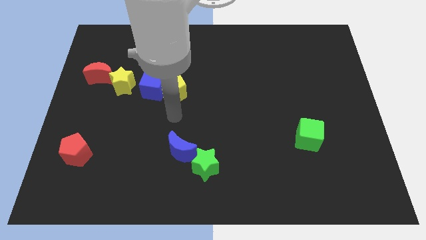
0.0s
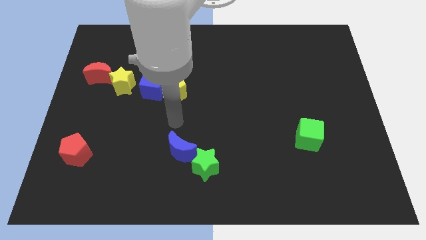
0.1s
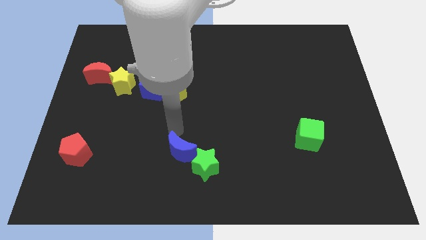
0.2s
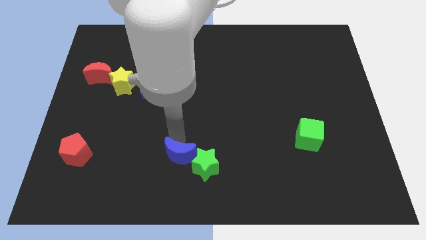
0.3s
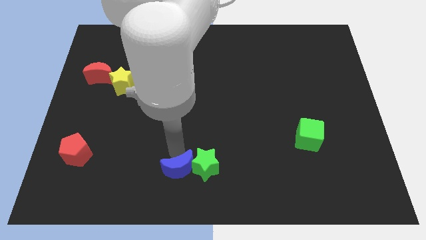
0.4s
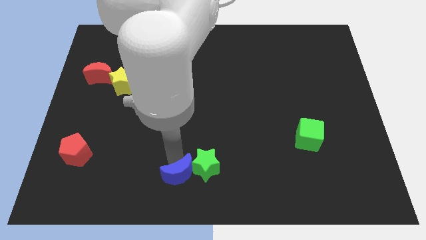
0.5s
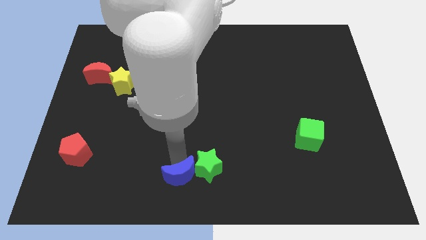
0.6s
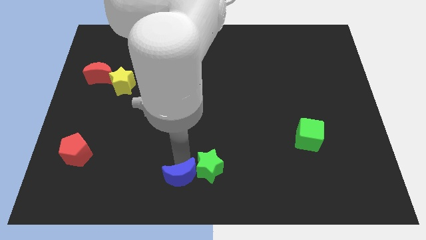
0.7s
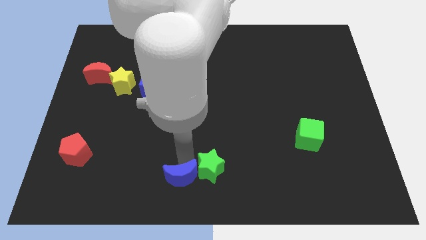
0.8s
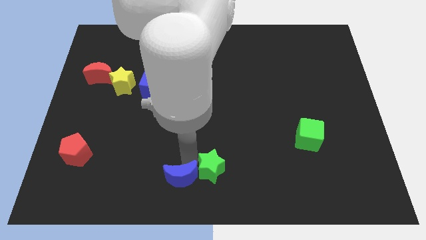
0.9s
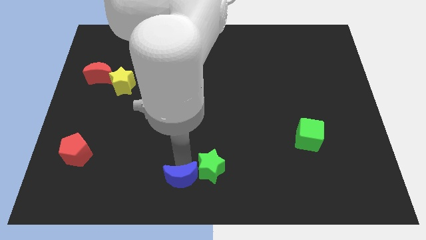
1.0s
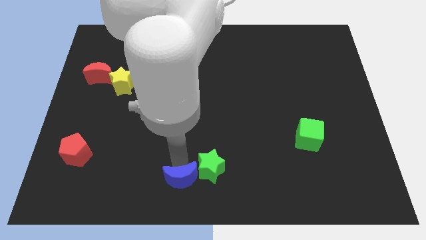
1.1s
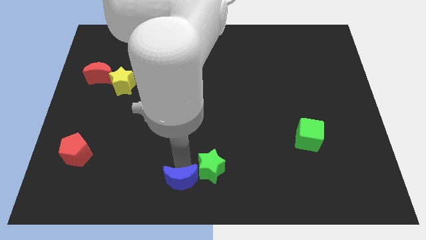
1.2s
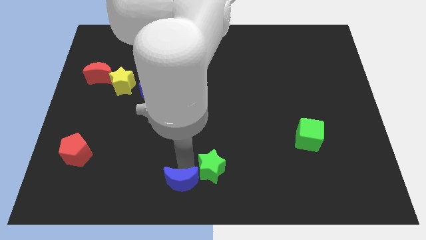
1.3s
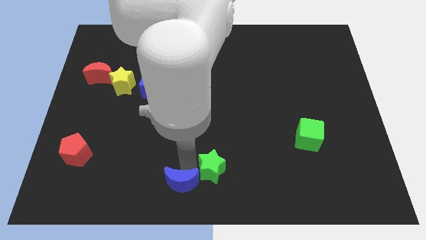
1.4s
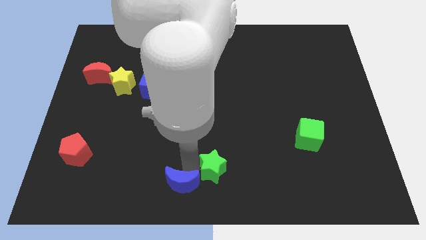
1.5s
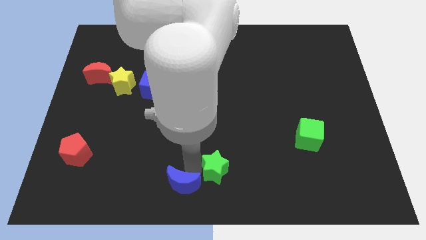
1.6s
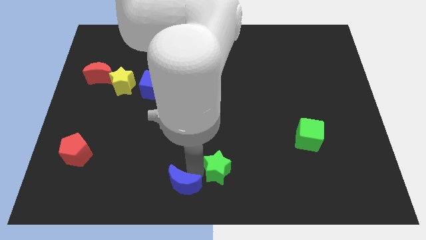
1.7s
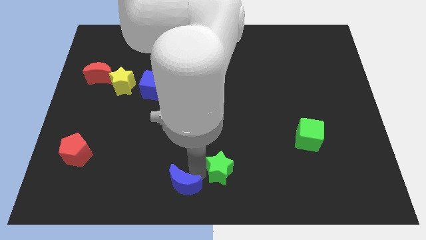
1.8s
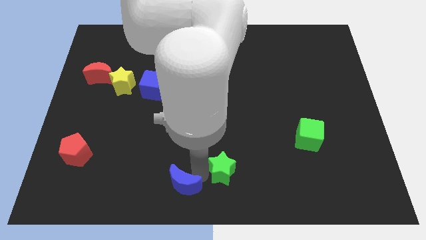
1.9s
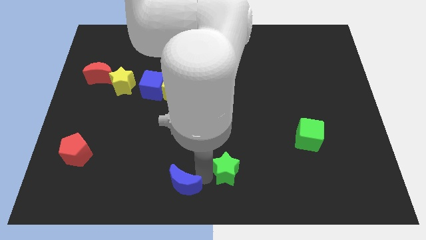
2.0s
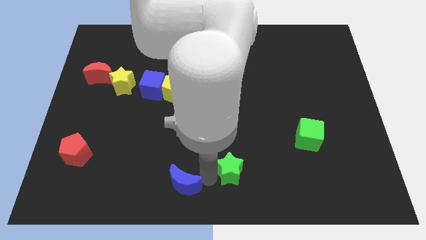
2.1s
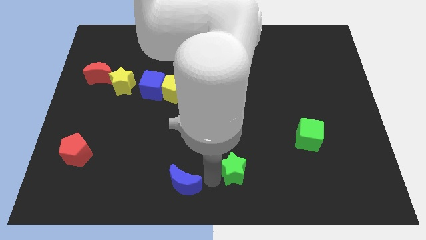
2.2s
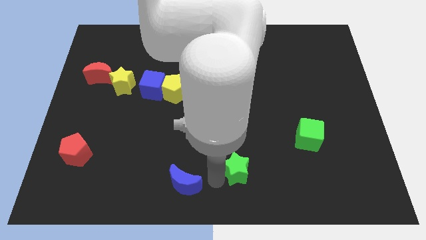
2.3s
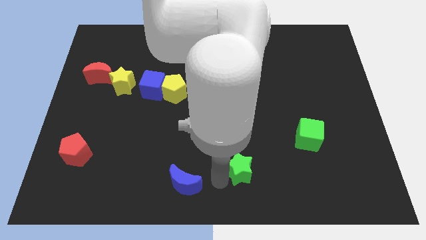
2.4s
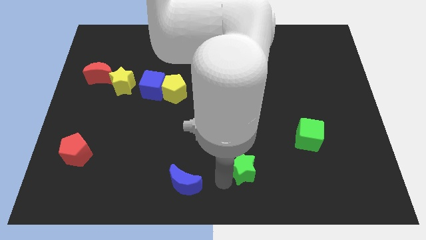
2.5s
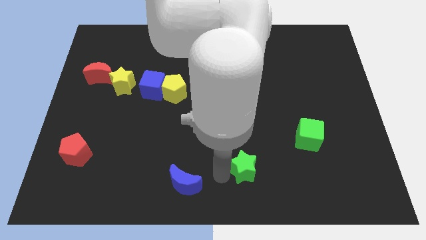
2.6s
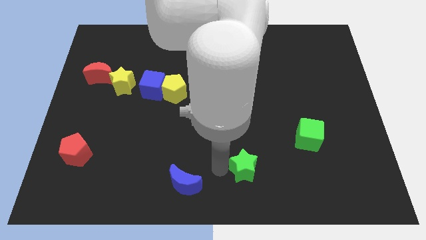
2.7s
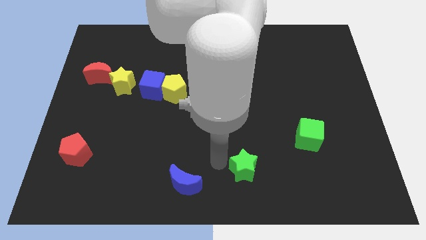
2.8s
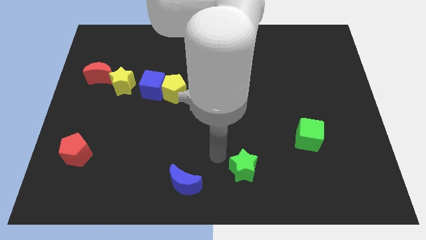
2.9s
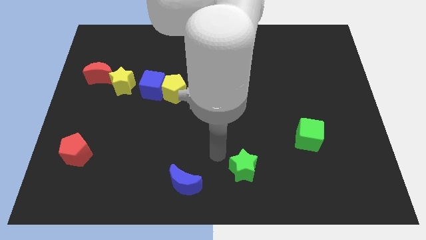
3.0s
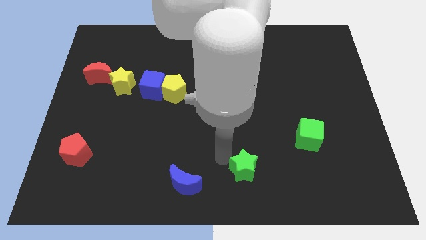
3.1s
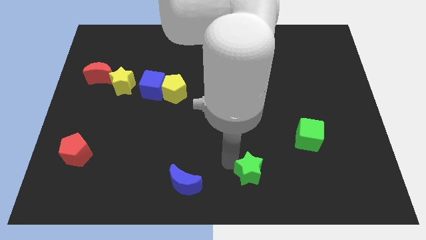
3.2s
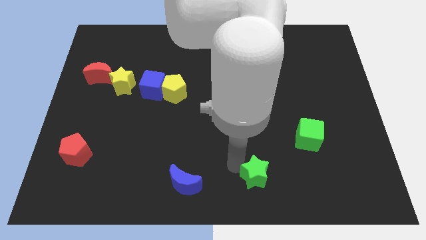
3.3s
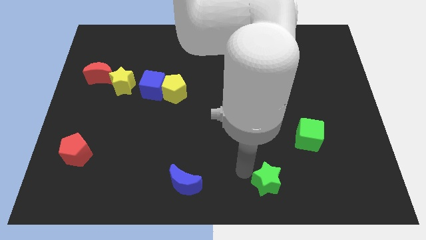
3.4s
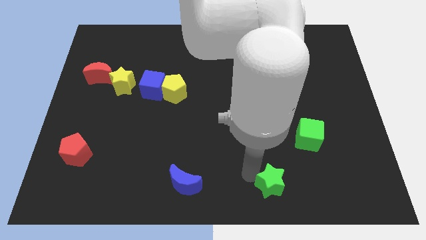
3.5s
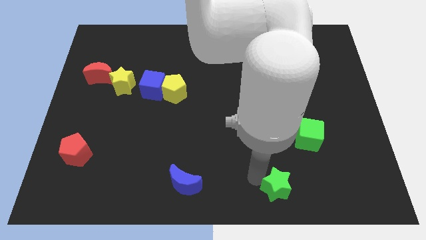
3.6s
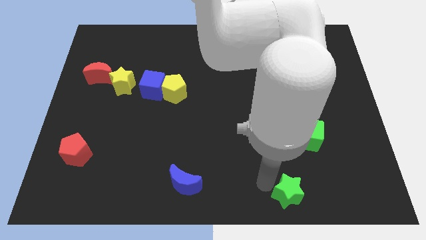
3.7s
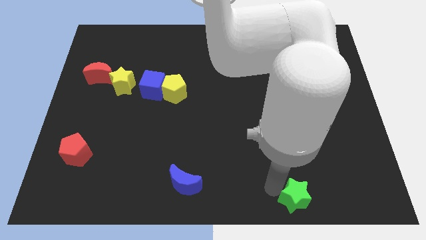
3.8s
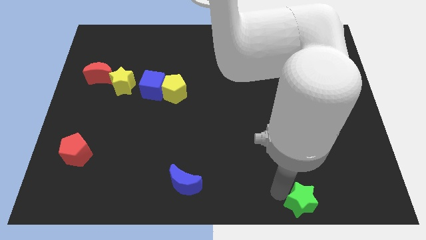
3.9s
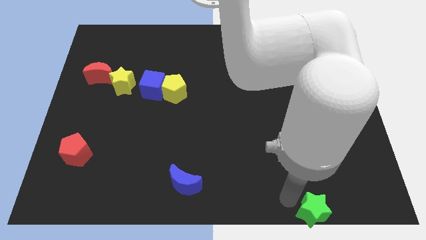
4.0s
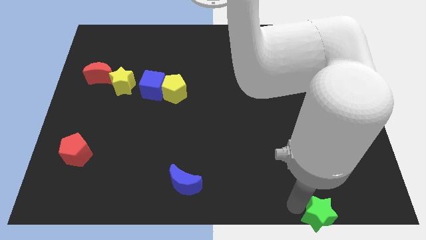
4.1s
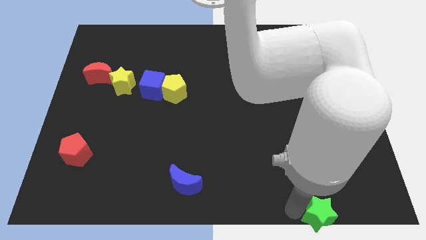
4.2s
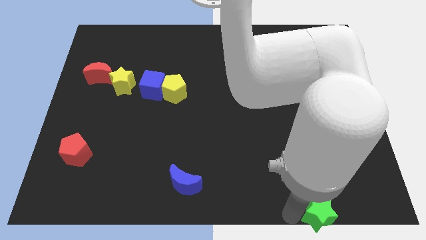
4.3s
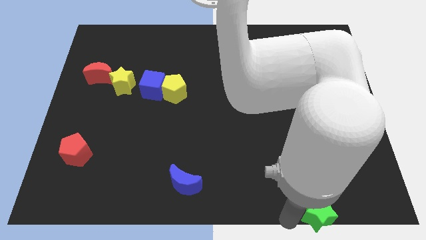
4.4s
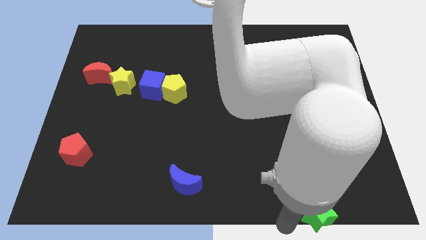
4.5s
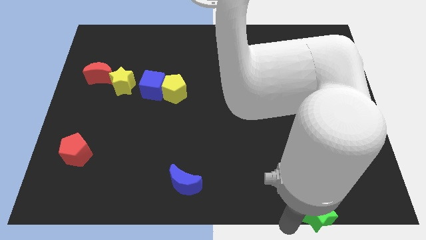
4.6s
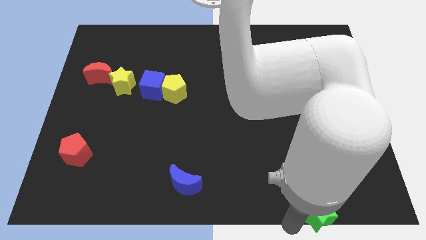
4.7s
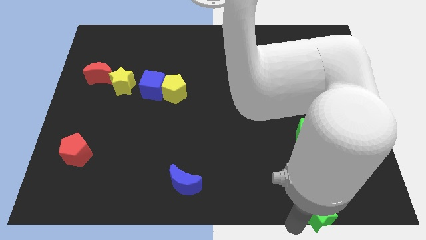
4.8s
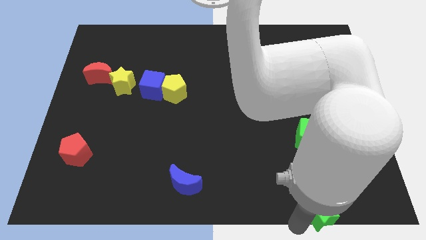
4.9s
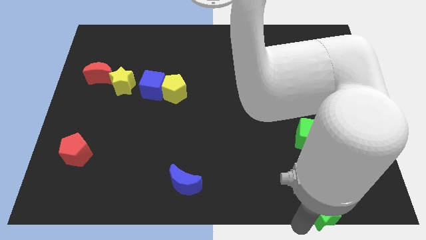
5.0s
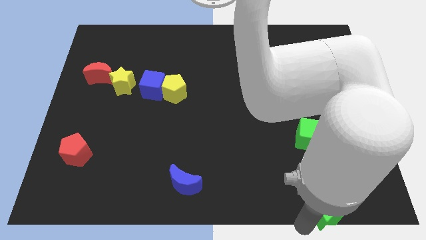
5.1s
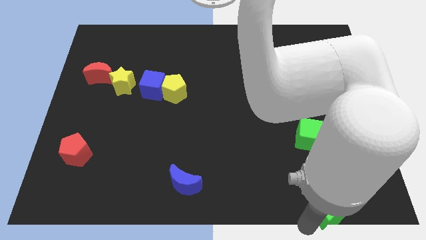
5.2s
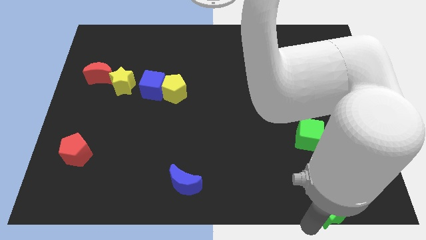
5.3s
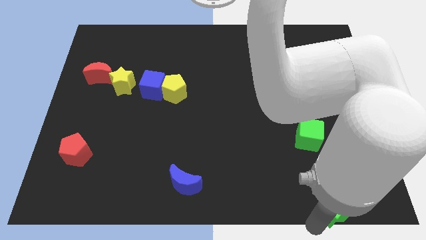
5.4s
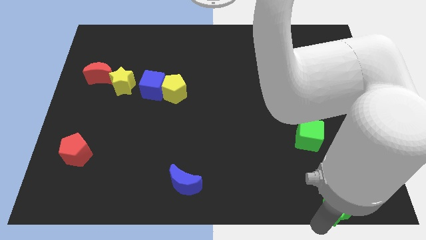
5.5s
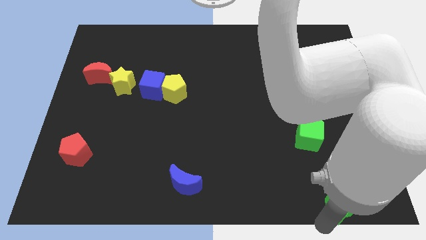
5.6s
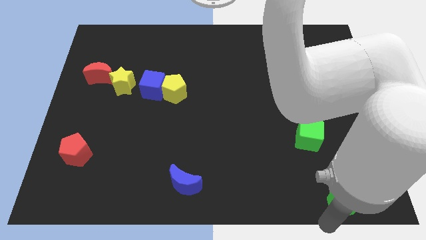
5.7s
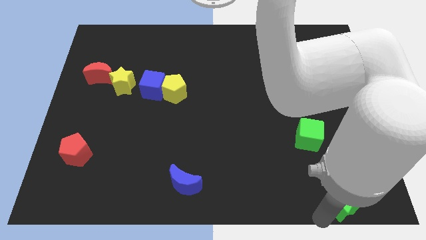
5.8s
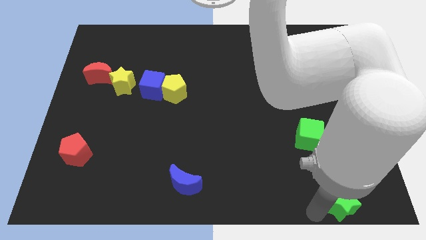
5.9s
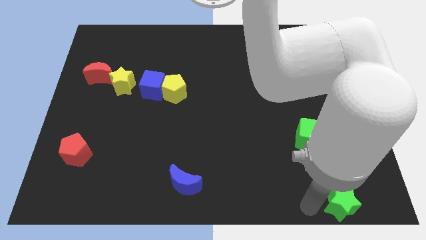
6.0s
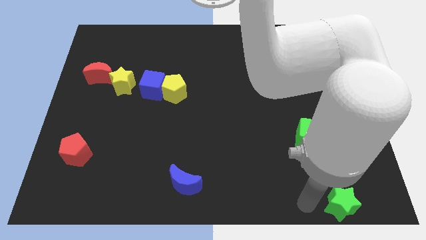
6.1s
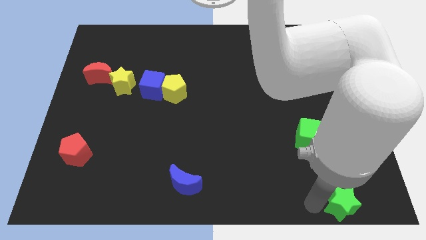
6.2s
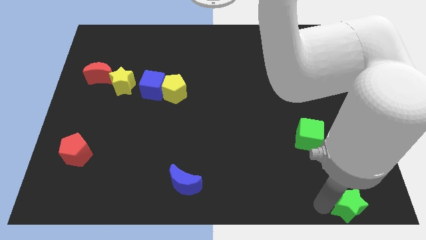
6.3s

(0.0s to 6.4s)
push the green star to the lower right corner
